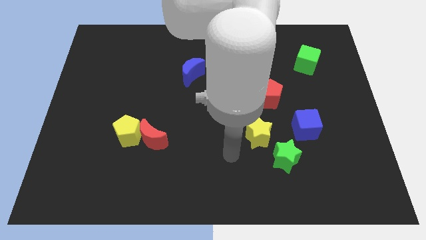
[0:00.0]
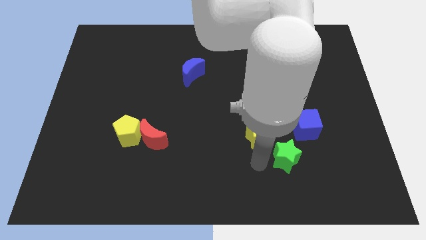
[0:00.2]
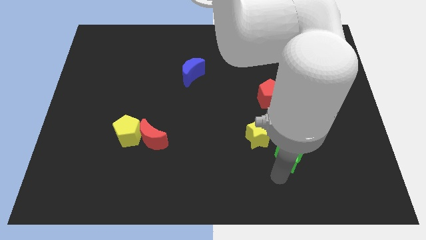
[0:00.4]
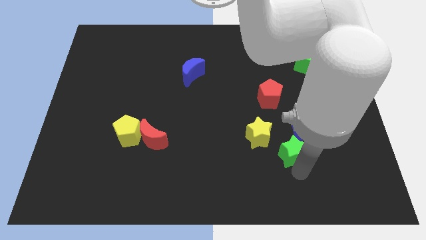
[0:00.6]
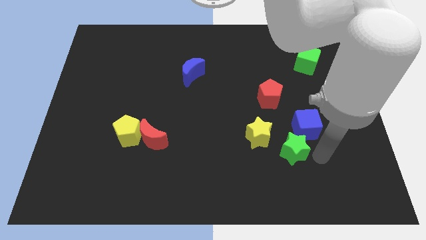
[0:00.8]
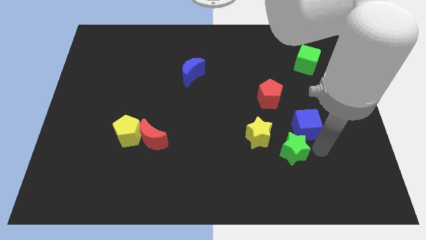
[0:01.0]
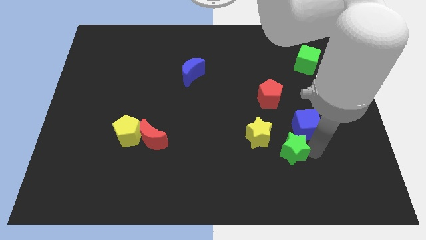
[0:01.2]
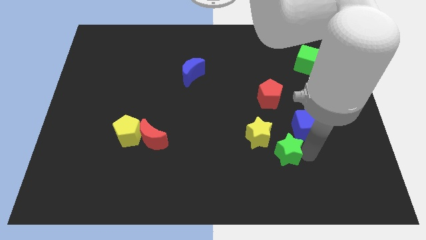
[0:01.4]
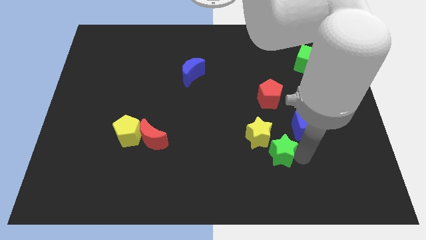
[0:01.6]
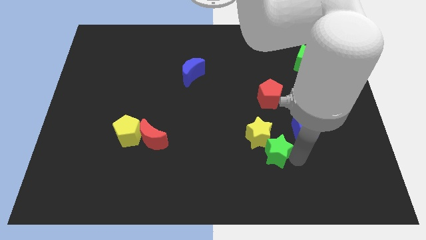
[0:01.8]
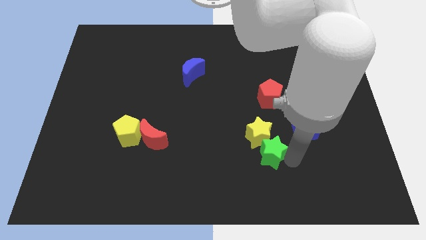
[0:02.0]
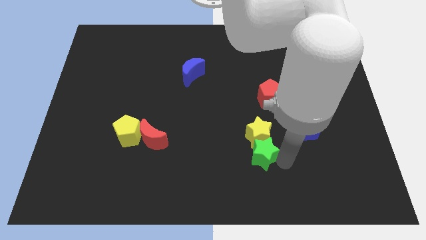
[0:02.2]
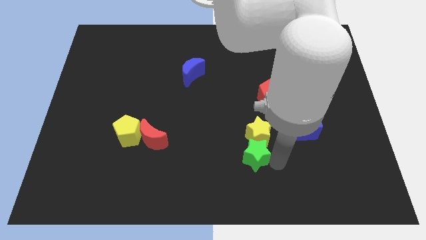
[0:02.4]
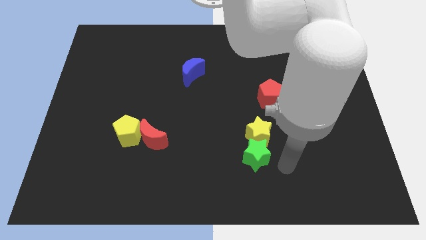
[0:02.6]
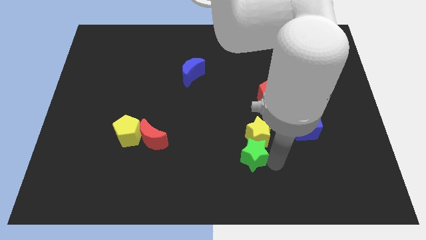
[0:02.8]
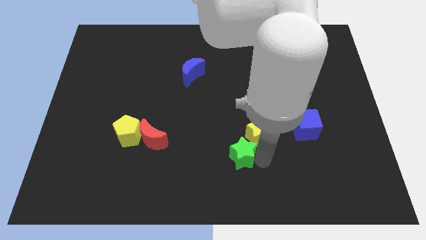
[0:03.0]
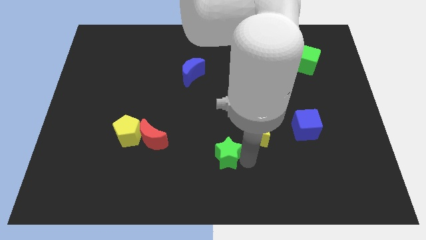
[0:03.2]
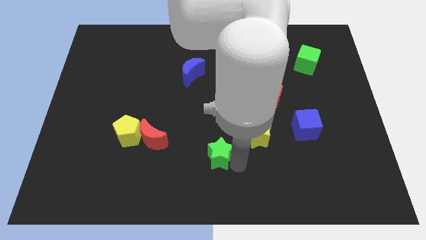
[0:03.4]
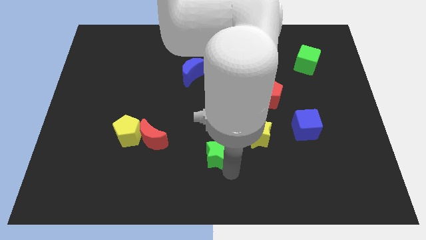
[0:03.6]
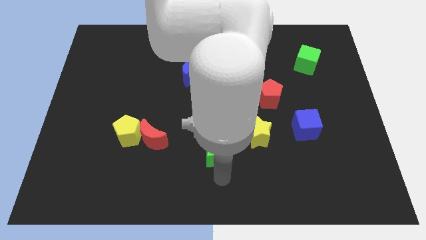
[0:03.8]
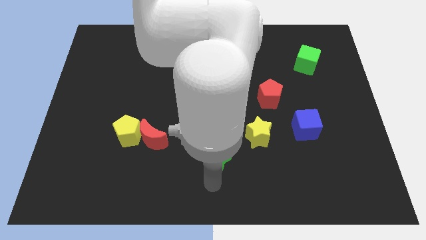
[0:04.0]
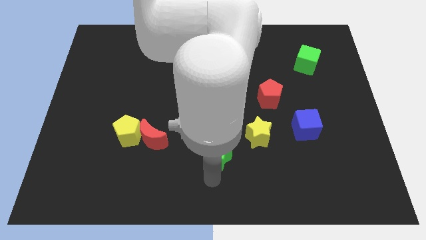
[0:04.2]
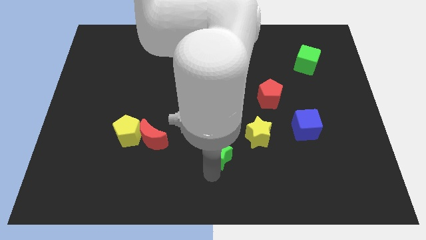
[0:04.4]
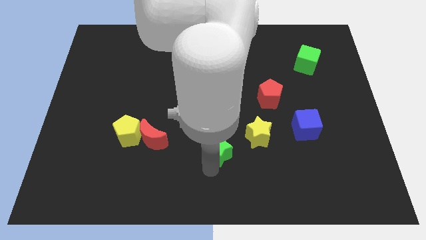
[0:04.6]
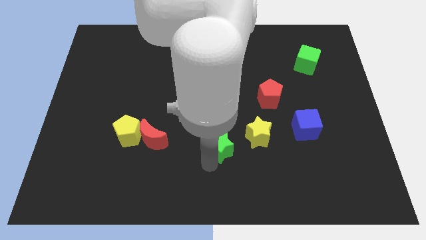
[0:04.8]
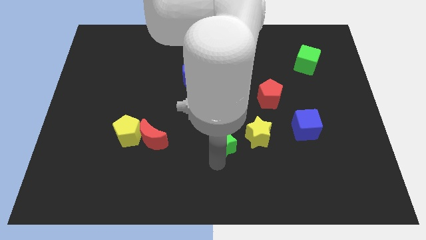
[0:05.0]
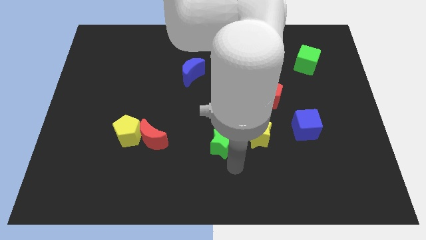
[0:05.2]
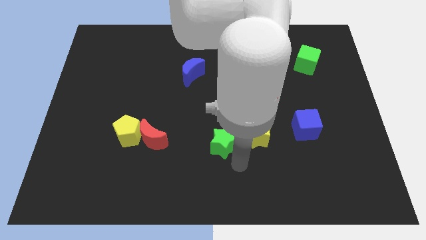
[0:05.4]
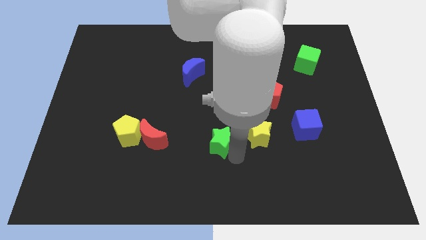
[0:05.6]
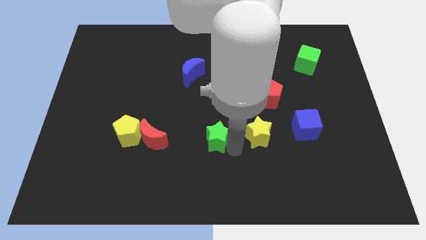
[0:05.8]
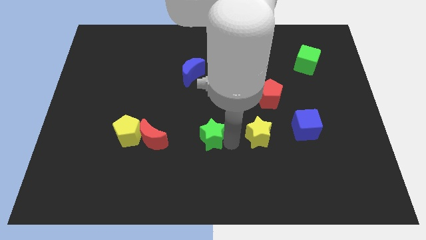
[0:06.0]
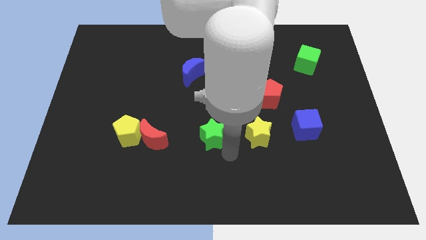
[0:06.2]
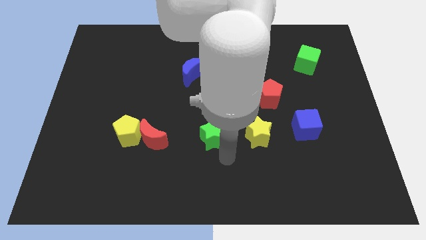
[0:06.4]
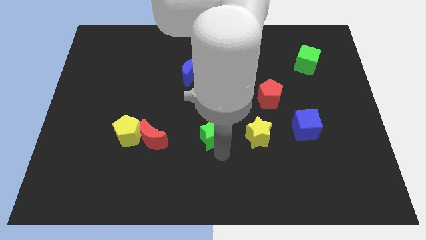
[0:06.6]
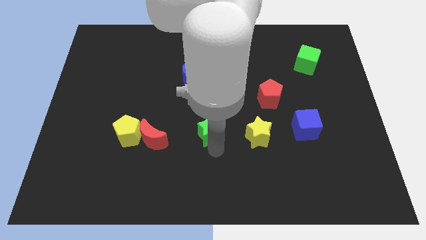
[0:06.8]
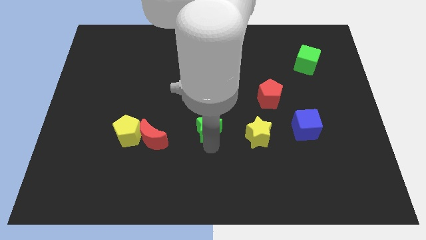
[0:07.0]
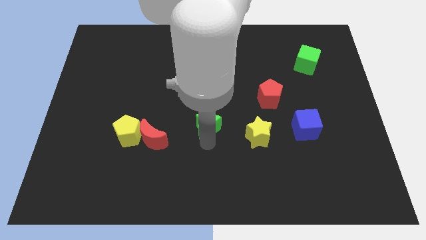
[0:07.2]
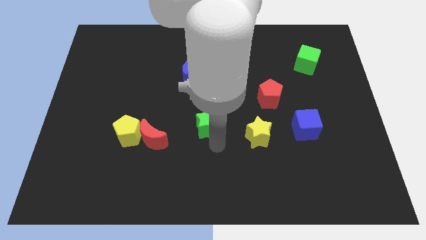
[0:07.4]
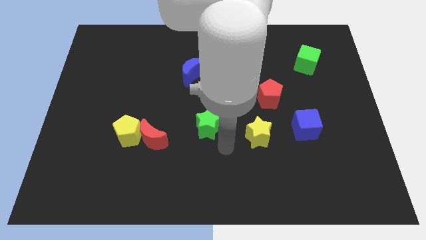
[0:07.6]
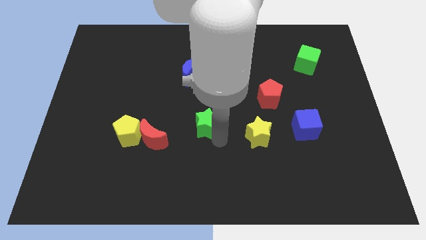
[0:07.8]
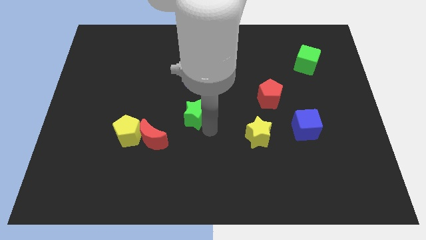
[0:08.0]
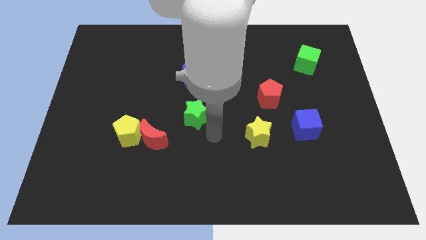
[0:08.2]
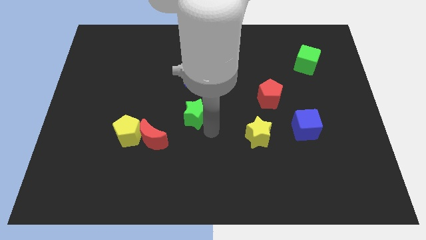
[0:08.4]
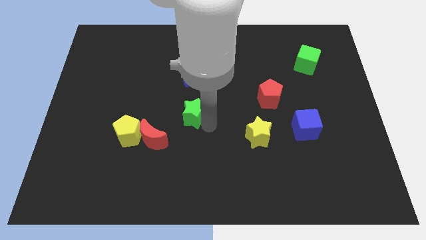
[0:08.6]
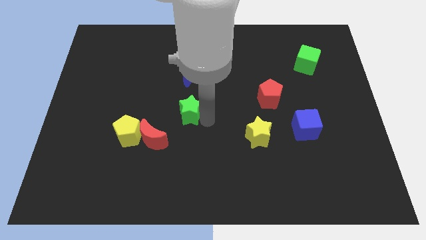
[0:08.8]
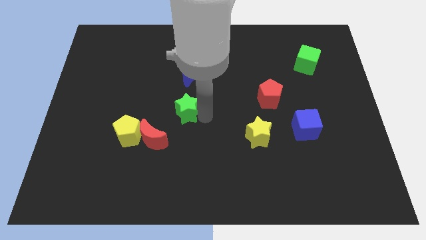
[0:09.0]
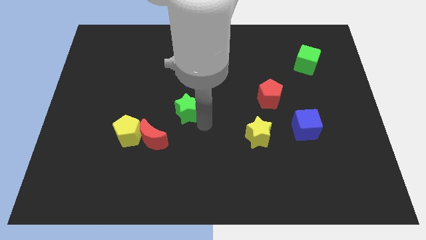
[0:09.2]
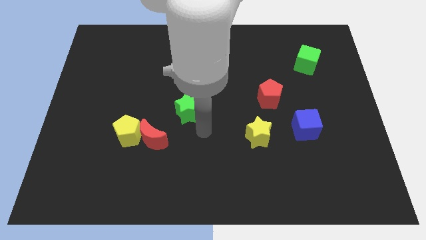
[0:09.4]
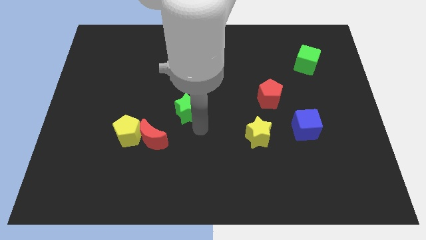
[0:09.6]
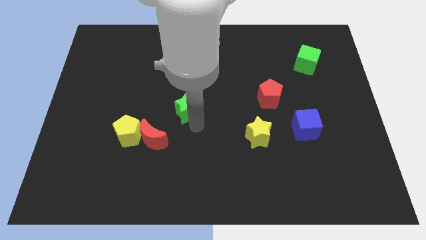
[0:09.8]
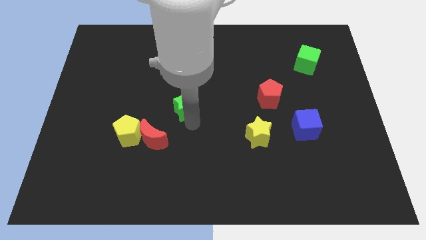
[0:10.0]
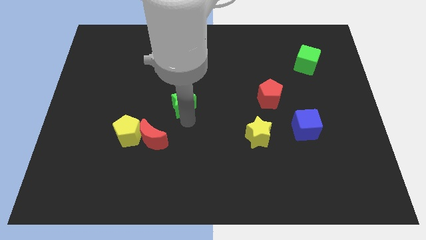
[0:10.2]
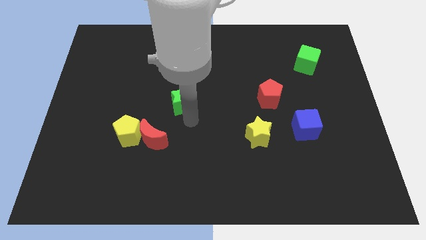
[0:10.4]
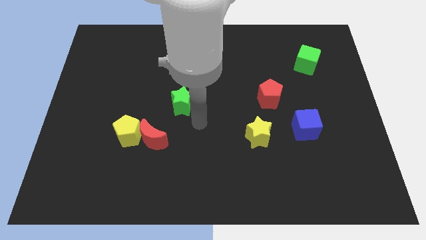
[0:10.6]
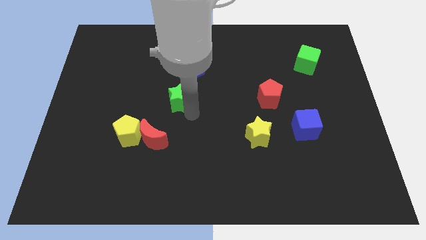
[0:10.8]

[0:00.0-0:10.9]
put the green star to the bottom left side of the blue moon

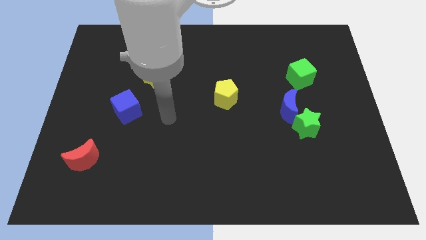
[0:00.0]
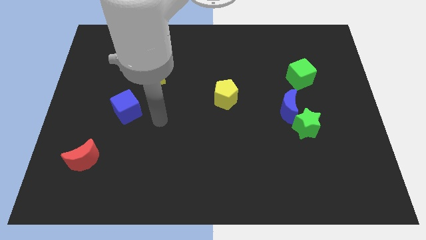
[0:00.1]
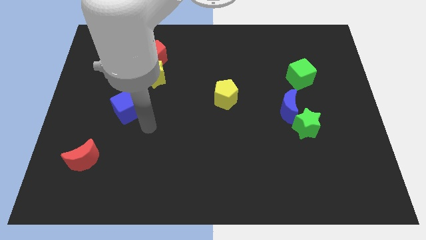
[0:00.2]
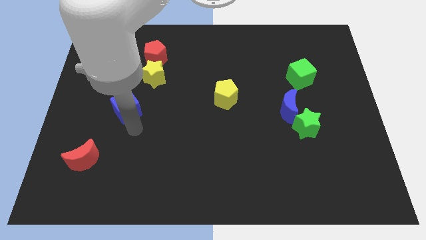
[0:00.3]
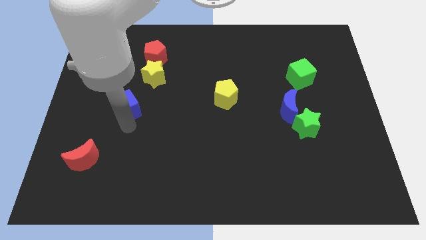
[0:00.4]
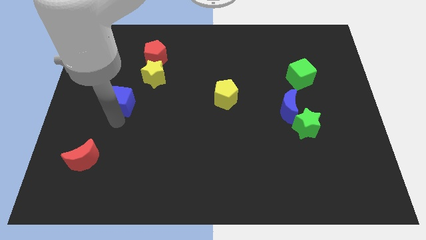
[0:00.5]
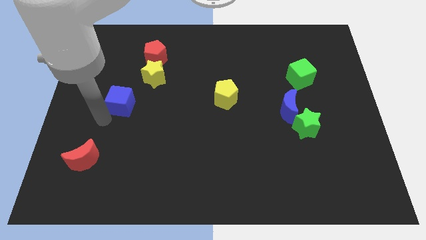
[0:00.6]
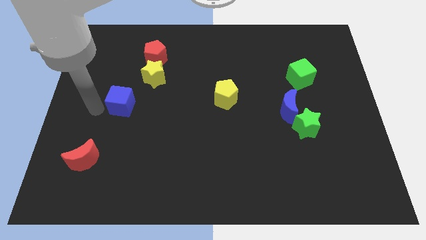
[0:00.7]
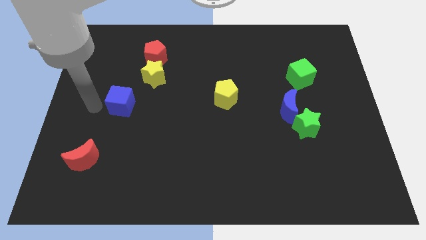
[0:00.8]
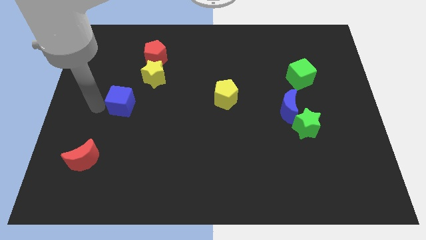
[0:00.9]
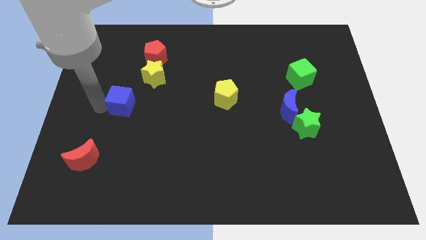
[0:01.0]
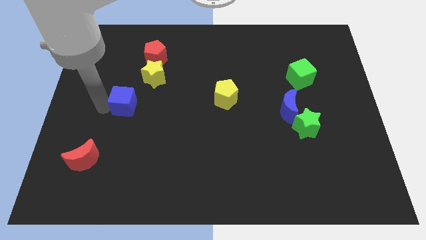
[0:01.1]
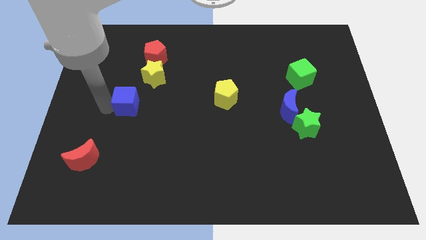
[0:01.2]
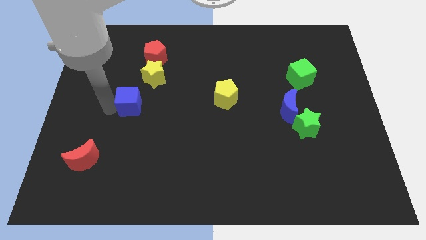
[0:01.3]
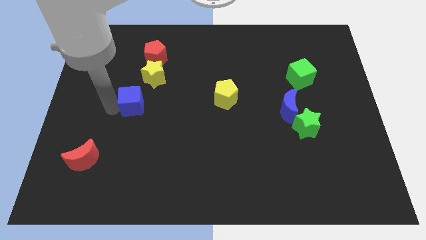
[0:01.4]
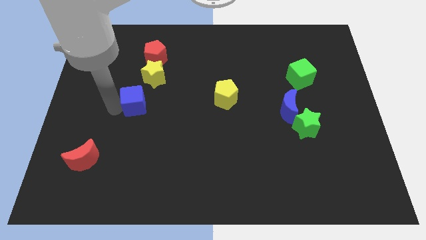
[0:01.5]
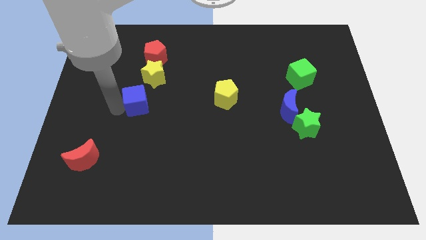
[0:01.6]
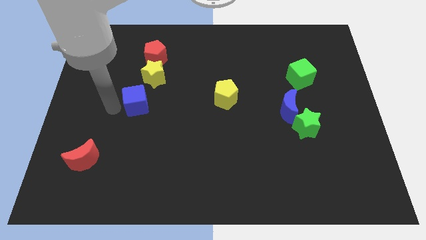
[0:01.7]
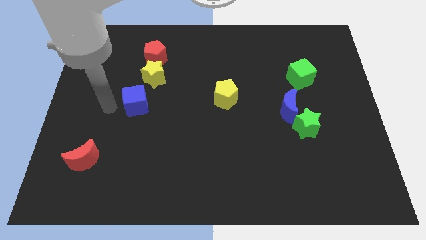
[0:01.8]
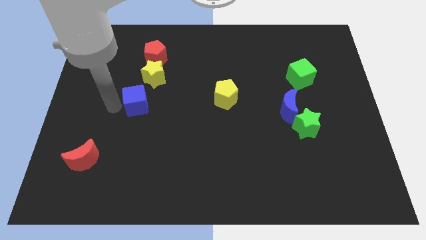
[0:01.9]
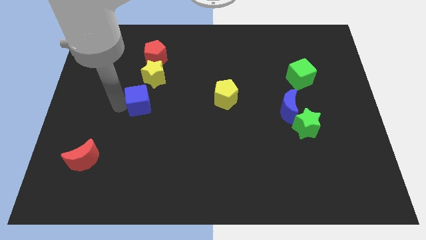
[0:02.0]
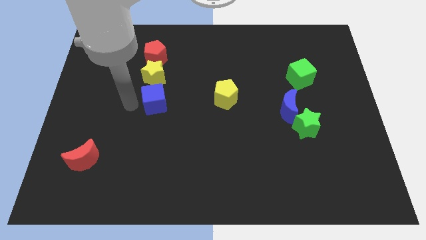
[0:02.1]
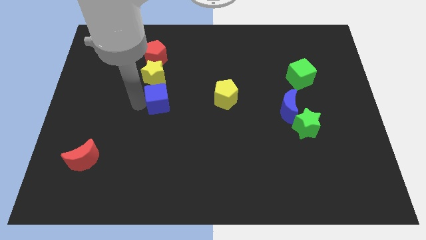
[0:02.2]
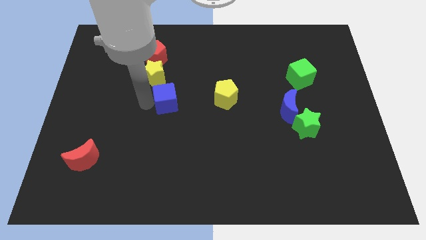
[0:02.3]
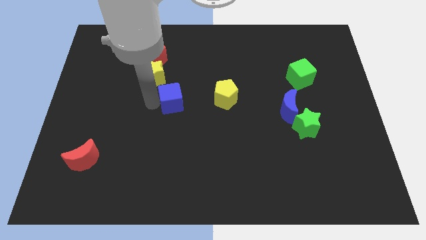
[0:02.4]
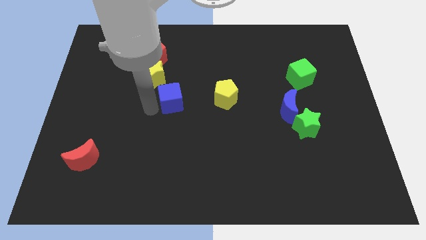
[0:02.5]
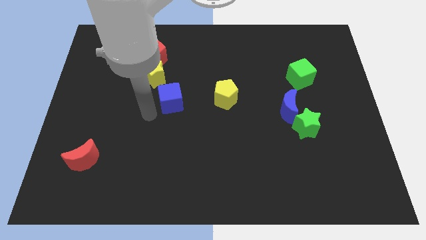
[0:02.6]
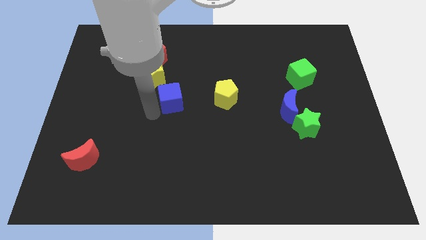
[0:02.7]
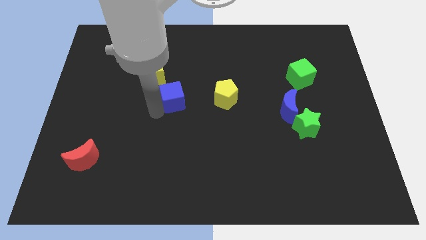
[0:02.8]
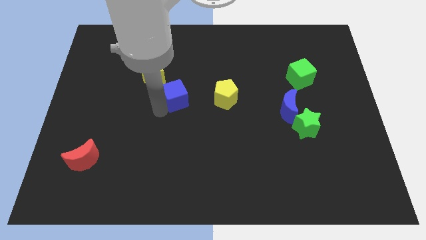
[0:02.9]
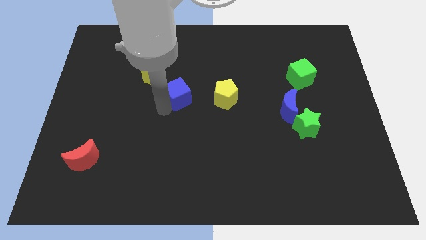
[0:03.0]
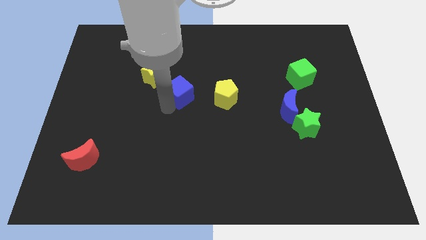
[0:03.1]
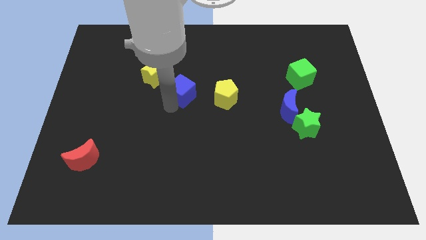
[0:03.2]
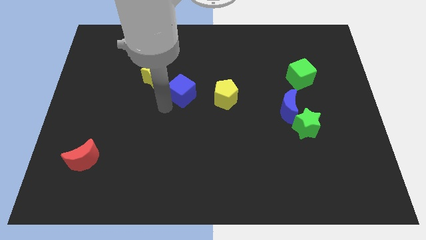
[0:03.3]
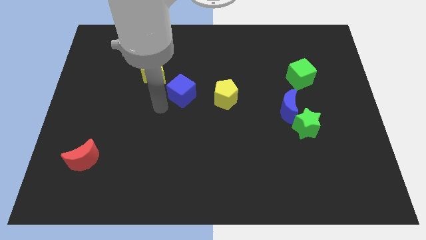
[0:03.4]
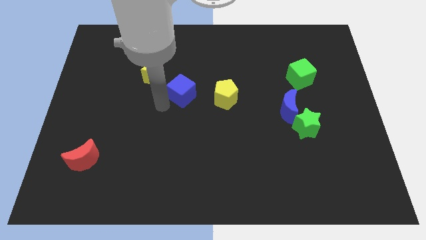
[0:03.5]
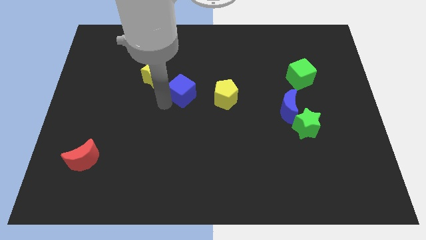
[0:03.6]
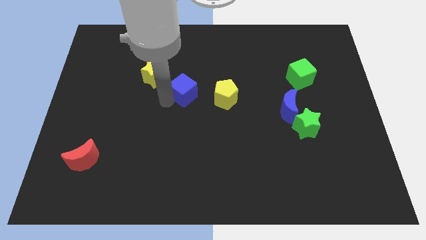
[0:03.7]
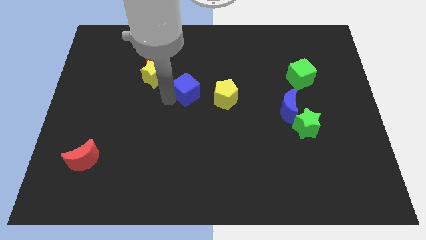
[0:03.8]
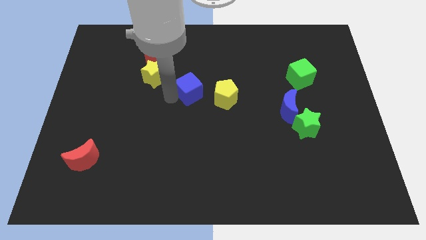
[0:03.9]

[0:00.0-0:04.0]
slide the blue cube diagonally up and to the left of the yellow pentagon
